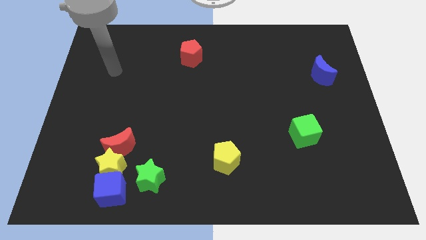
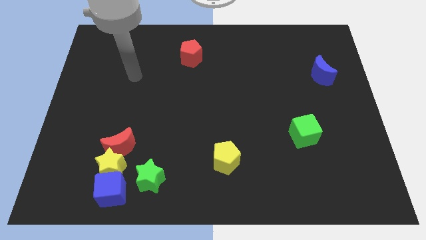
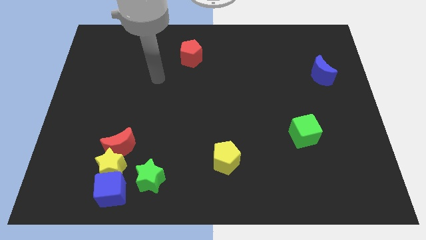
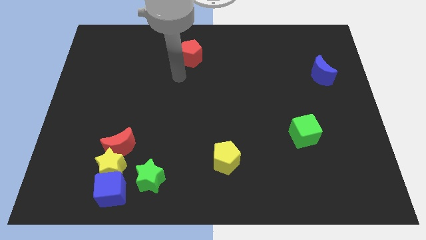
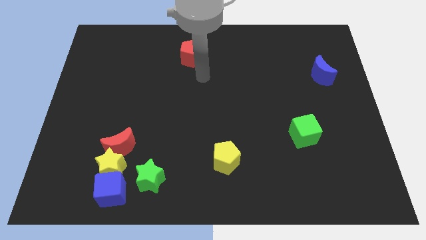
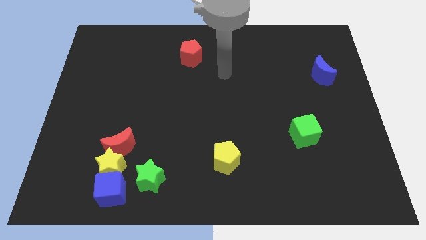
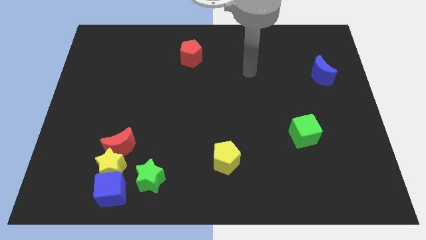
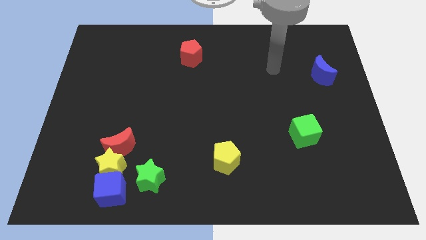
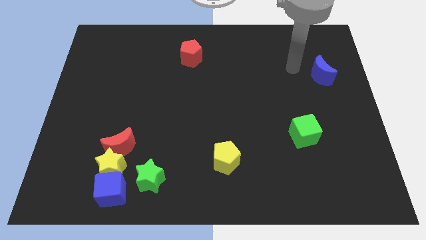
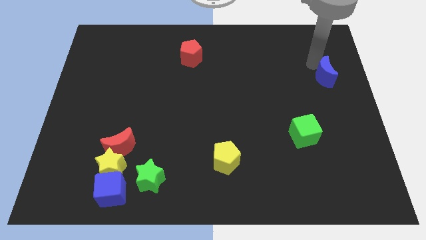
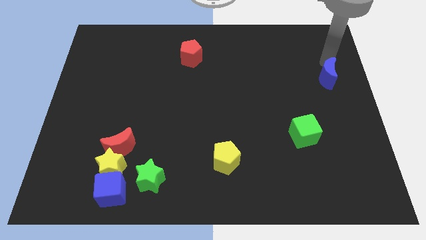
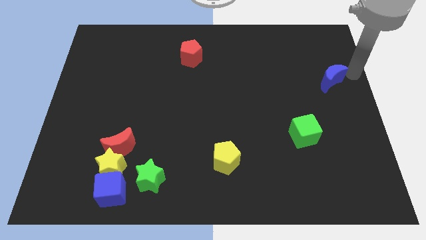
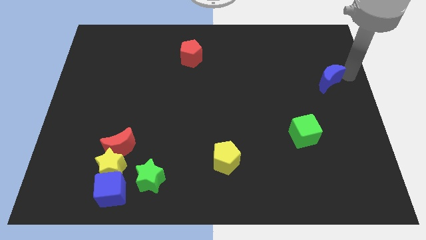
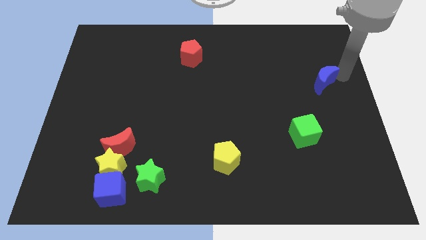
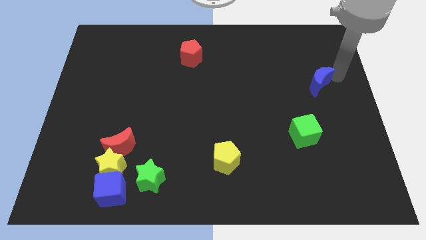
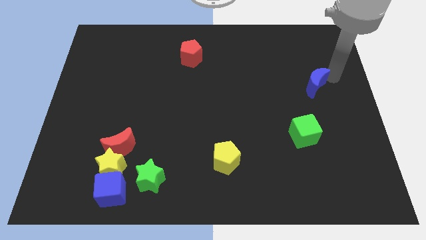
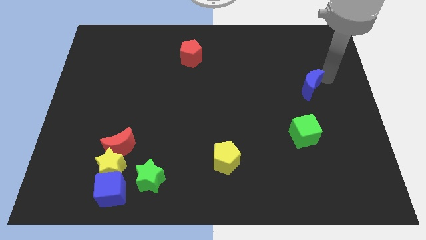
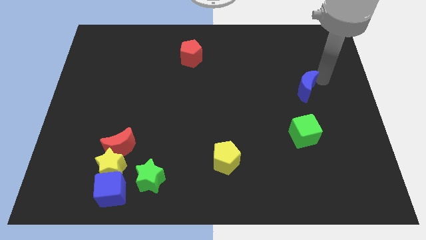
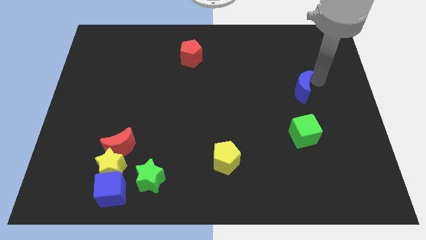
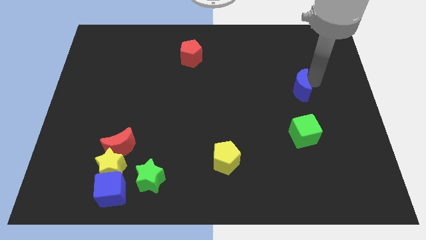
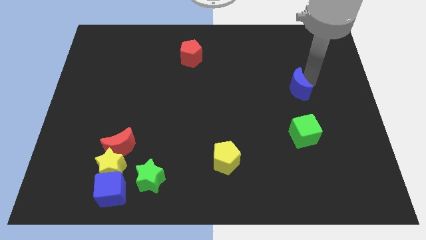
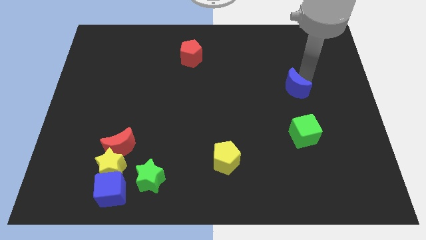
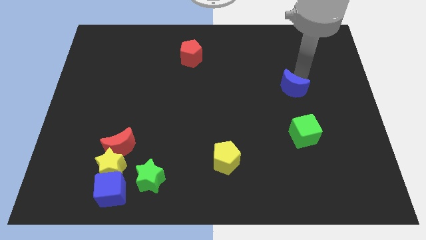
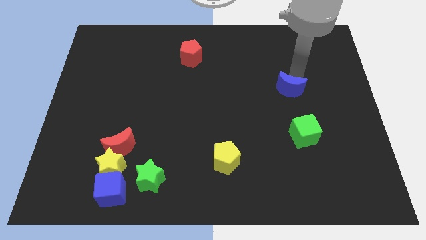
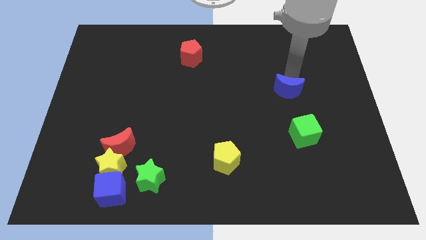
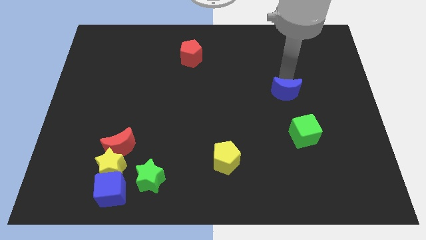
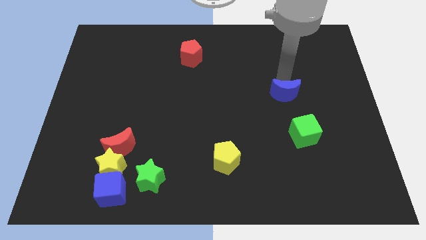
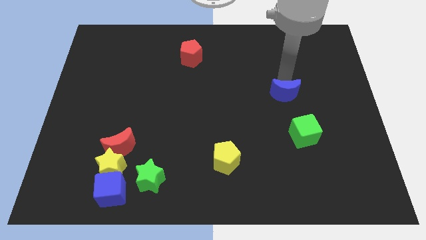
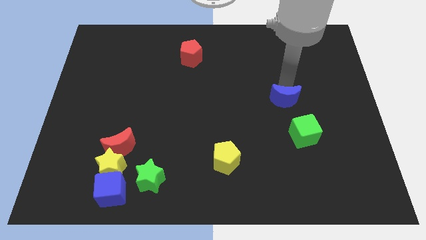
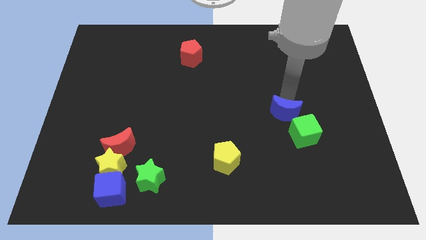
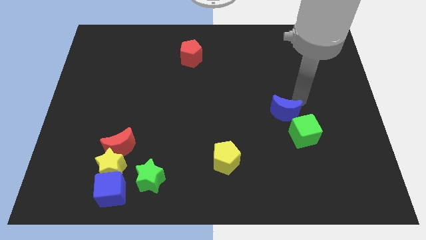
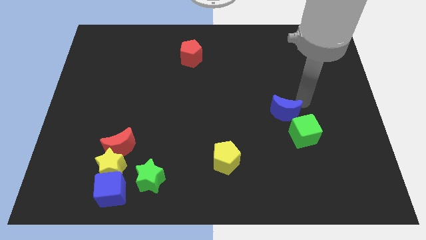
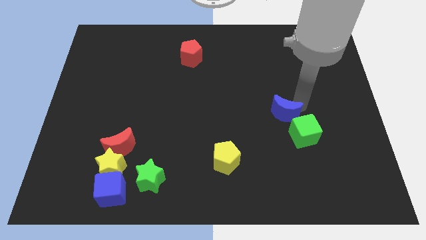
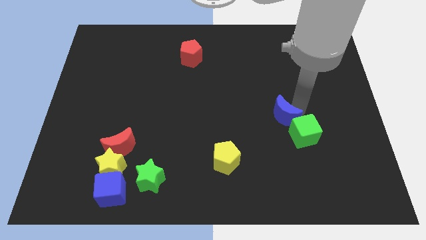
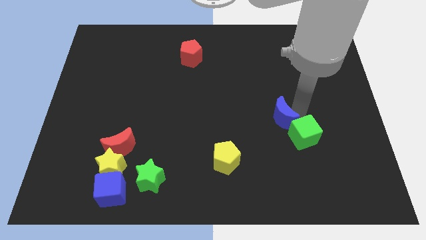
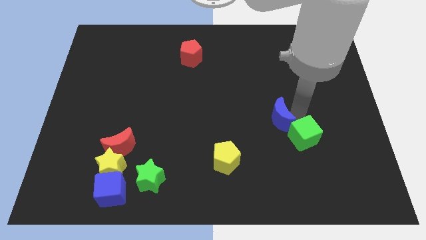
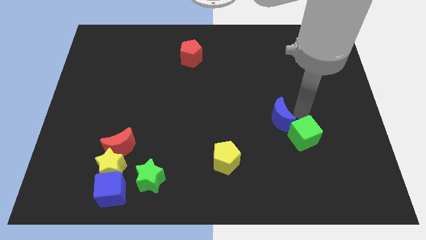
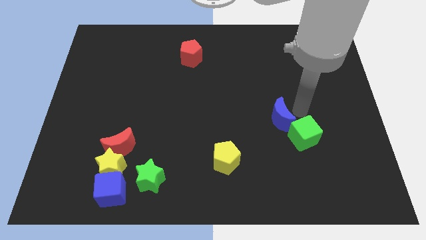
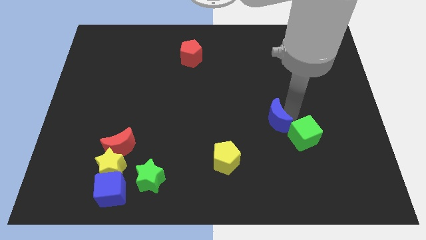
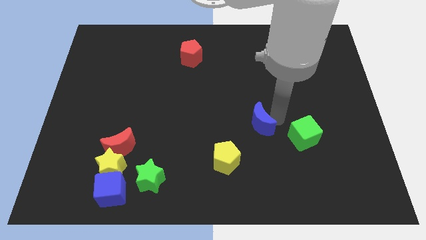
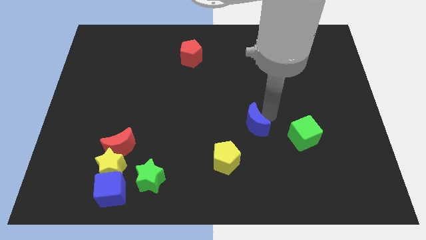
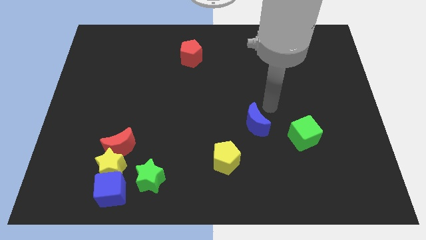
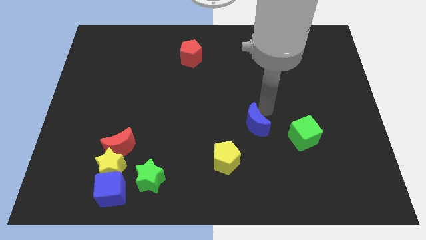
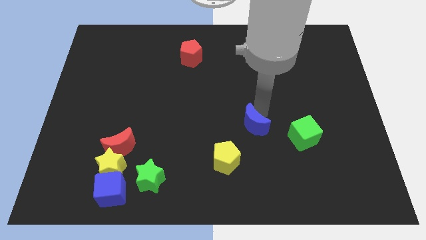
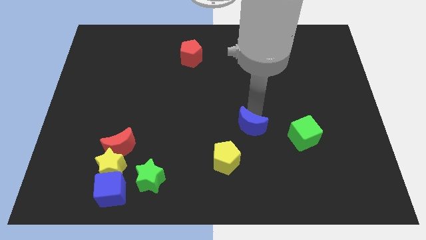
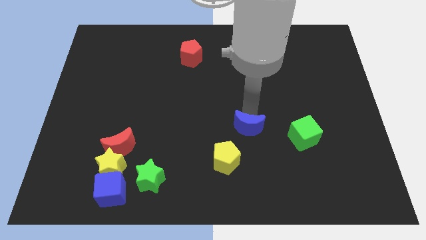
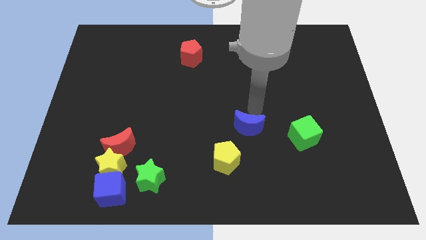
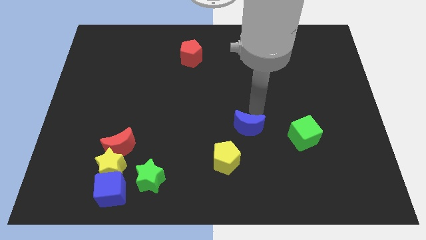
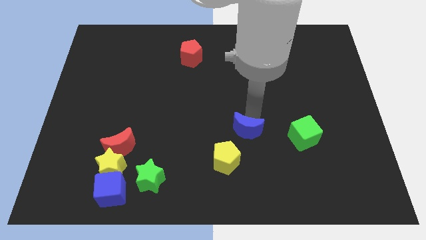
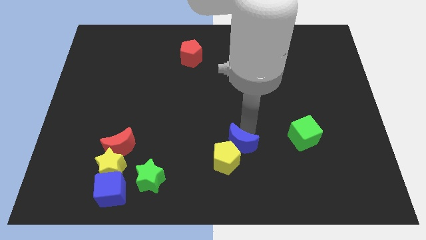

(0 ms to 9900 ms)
slide the blue moon next to the yellow pentagon

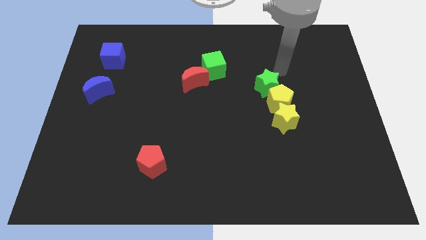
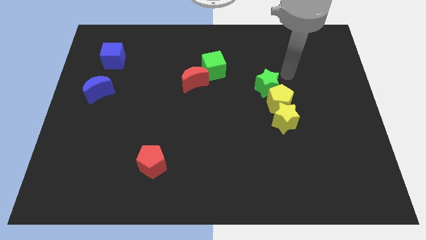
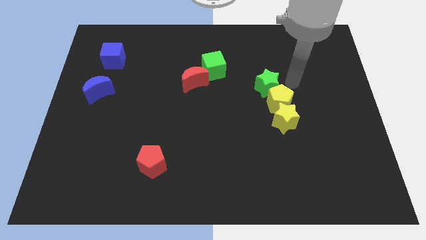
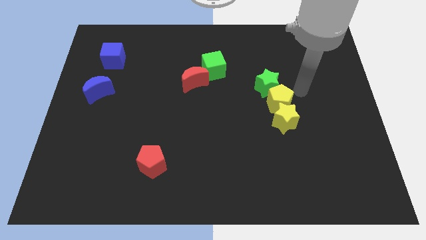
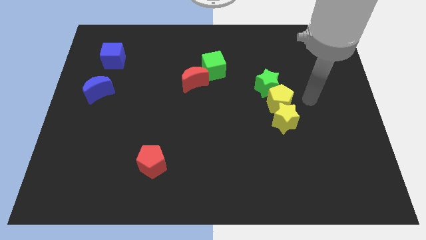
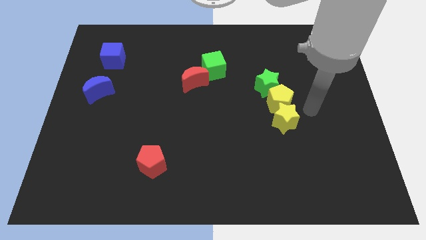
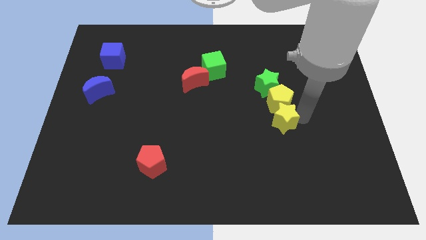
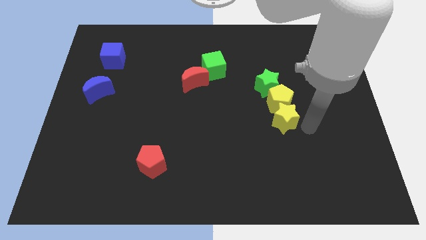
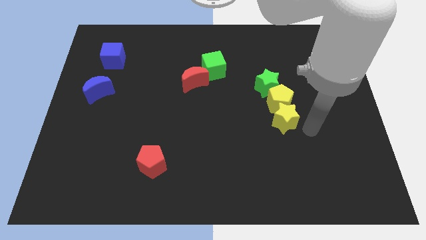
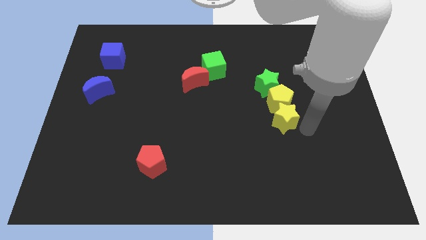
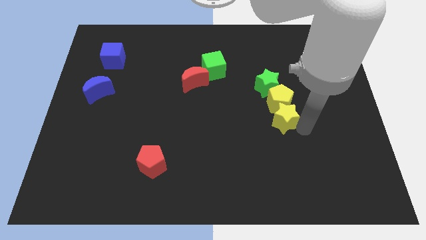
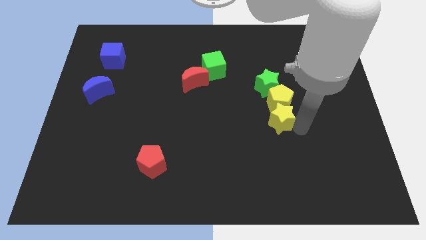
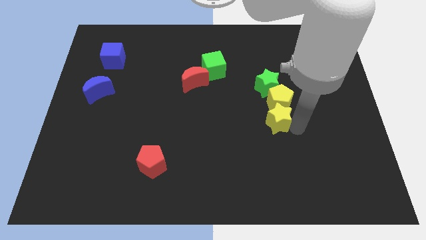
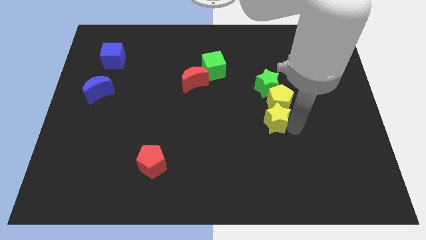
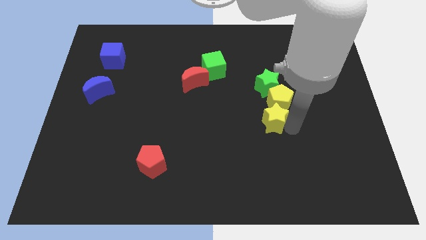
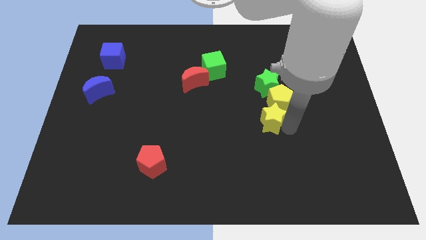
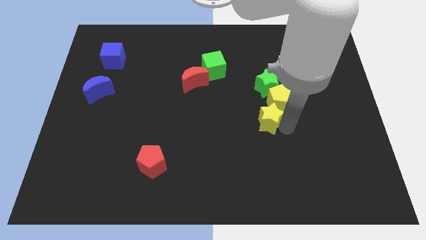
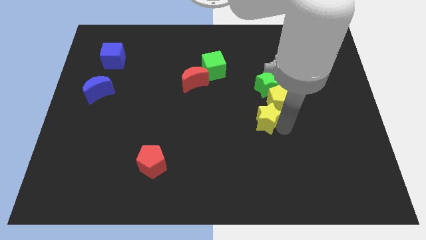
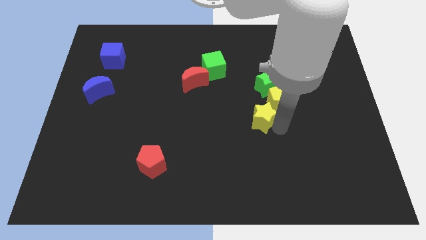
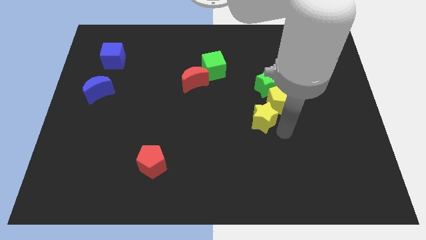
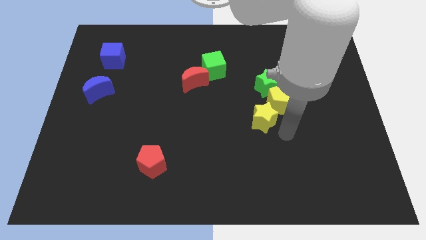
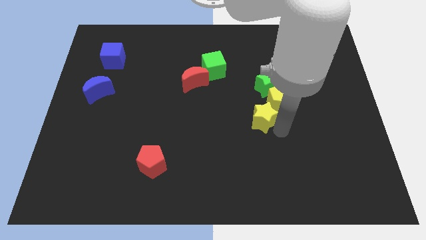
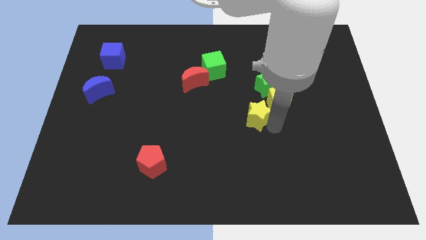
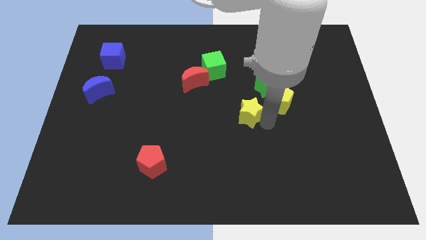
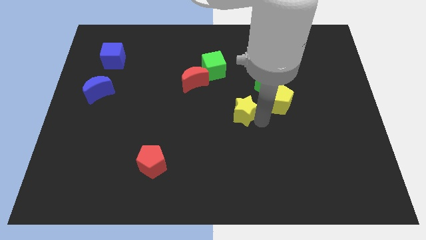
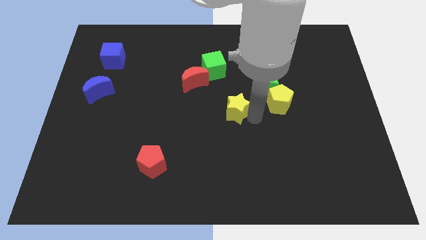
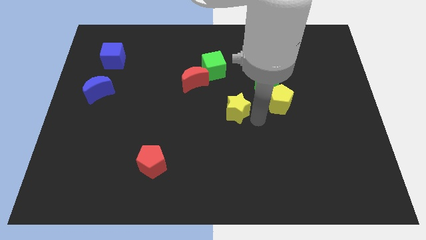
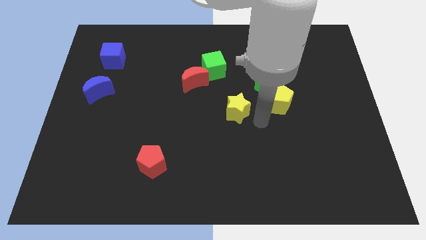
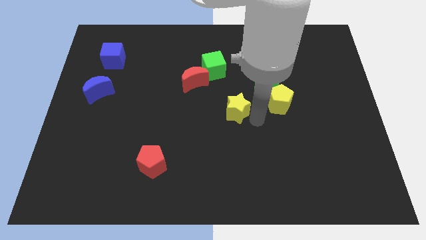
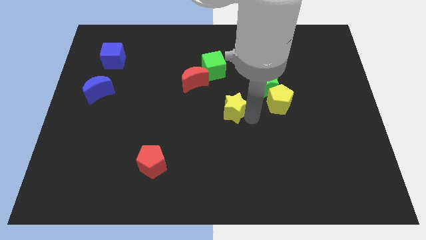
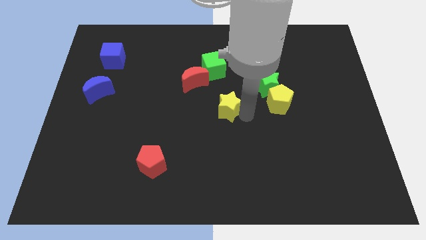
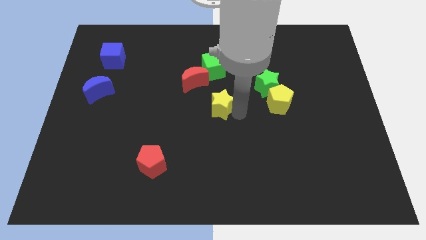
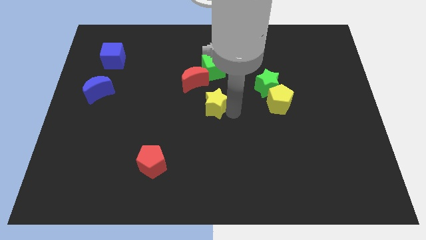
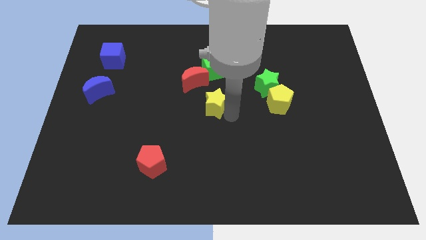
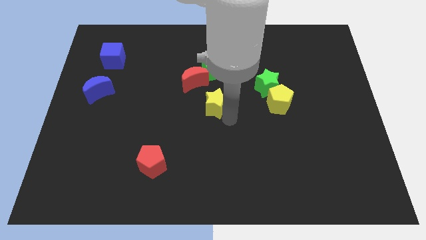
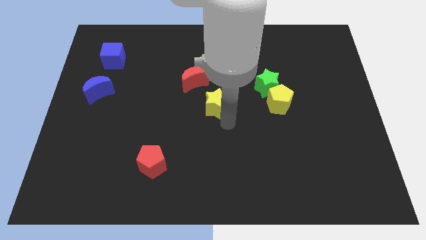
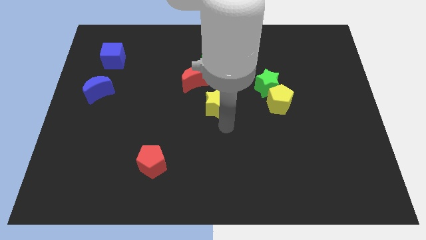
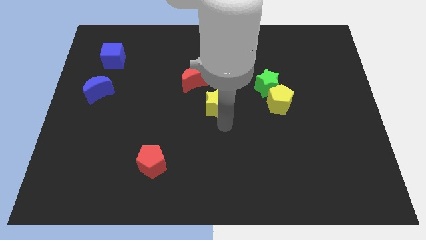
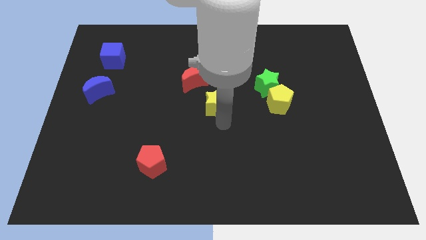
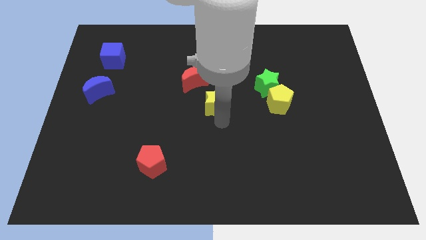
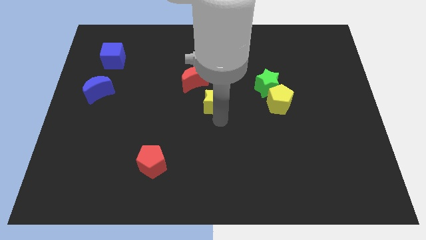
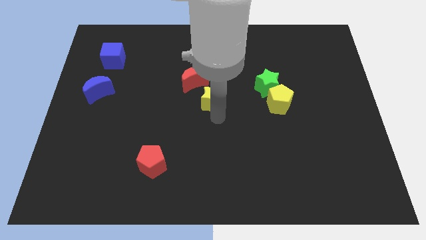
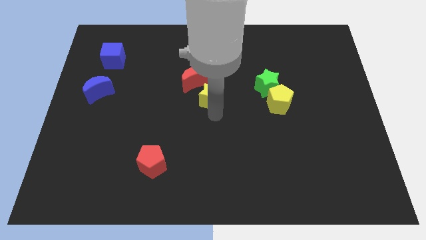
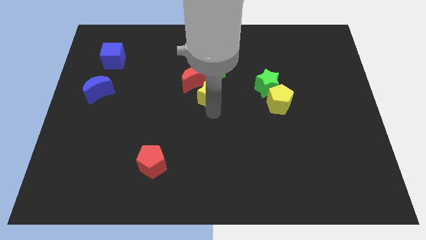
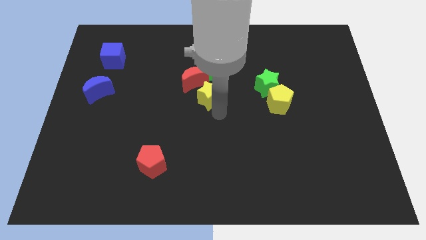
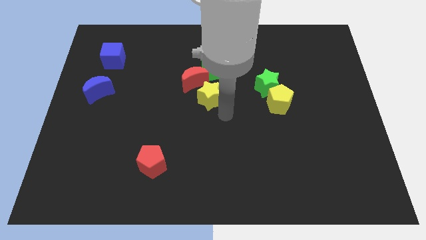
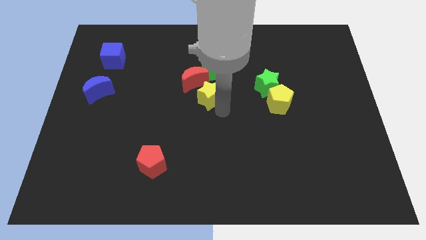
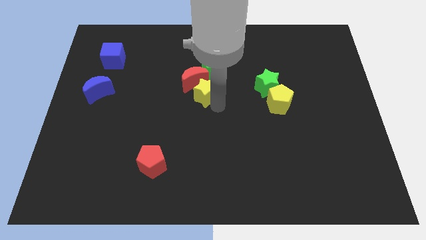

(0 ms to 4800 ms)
move the yellow star close to the red moon
